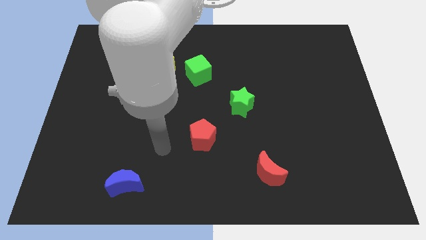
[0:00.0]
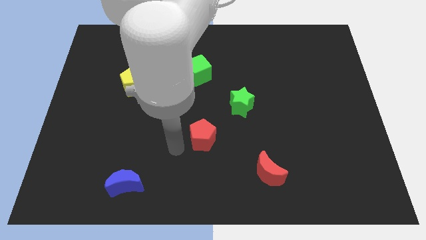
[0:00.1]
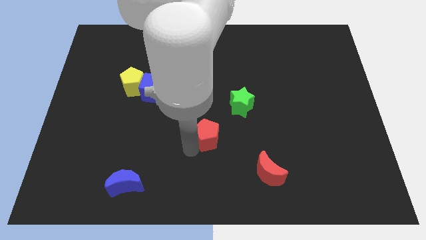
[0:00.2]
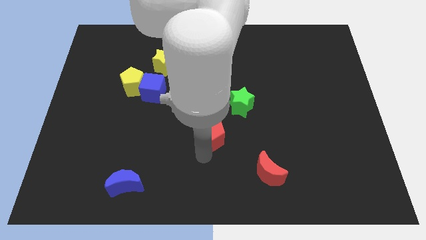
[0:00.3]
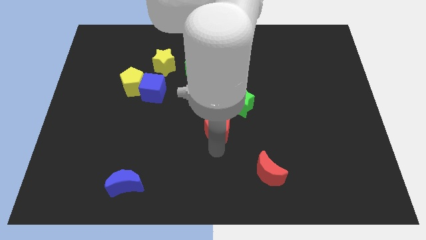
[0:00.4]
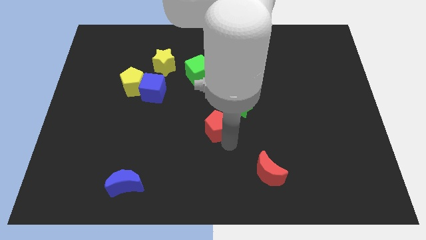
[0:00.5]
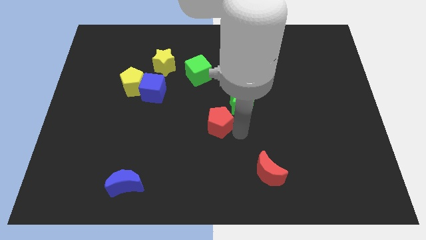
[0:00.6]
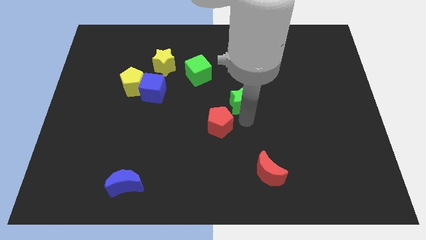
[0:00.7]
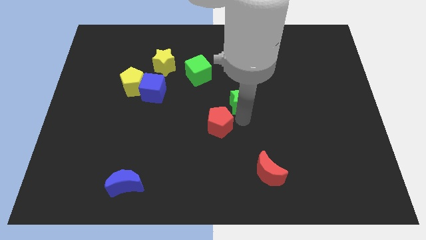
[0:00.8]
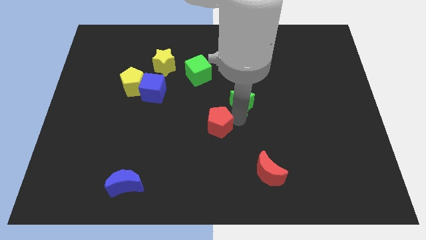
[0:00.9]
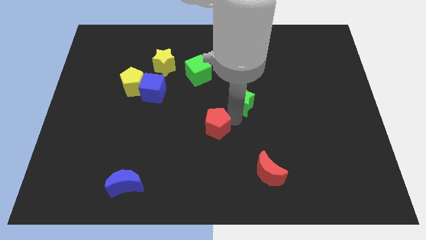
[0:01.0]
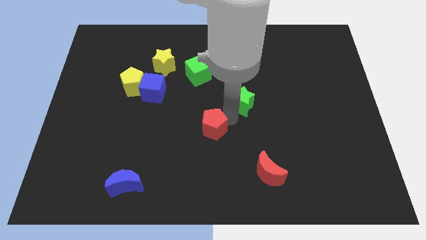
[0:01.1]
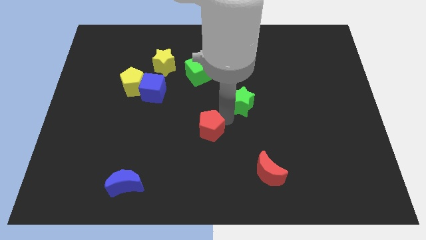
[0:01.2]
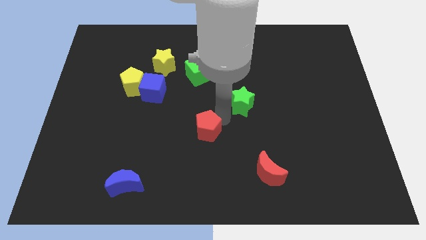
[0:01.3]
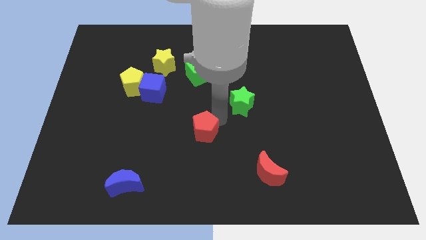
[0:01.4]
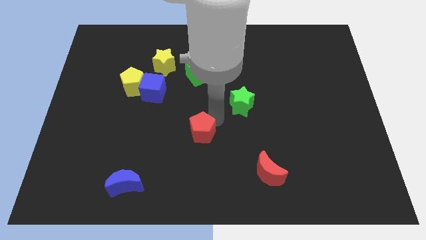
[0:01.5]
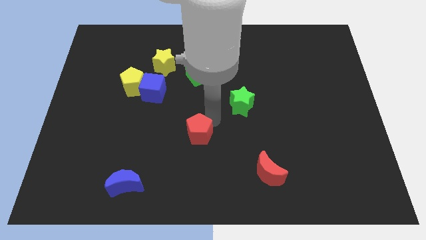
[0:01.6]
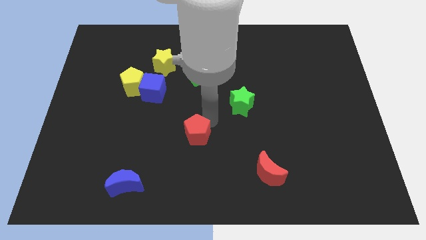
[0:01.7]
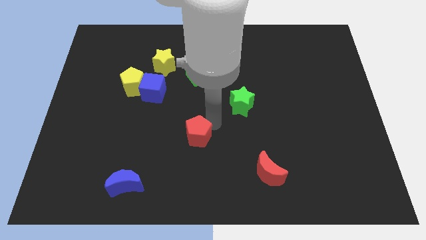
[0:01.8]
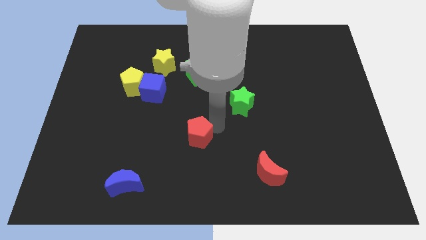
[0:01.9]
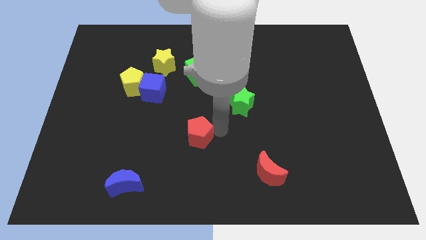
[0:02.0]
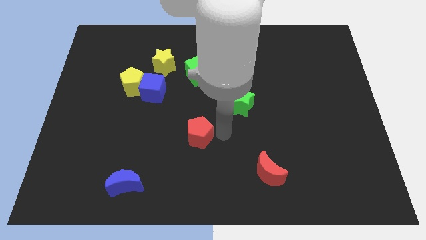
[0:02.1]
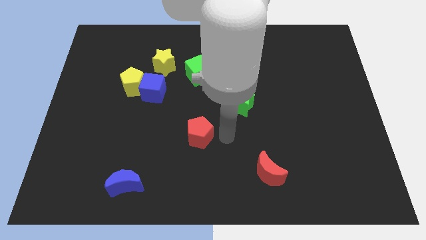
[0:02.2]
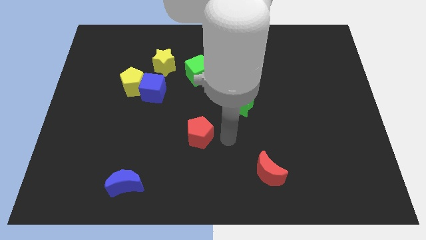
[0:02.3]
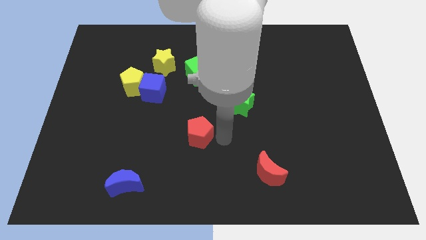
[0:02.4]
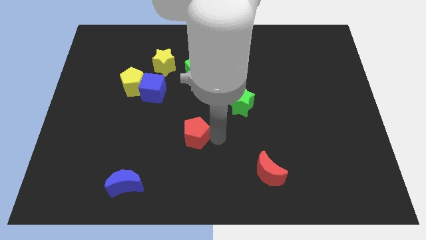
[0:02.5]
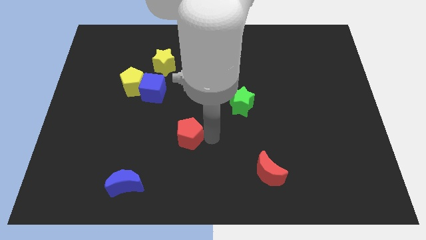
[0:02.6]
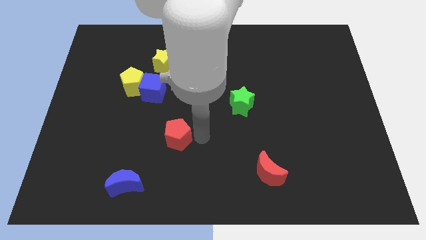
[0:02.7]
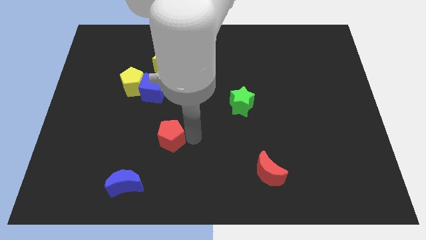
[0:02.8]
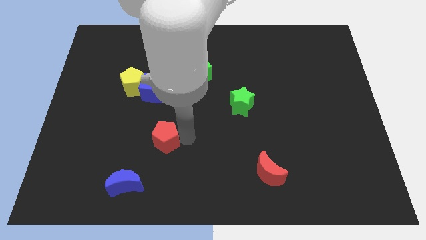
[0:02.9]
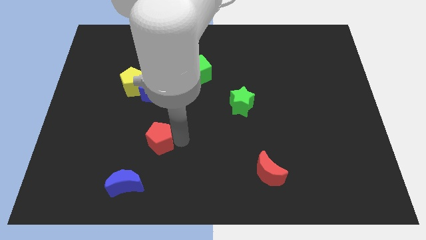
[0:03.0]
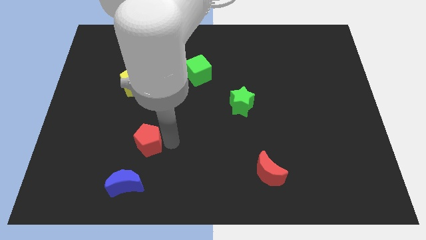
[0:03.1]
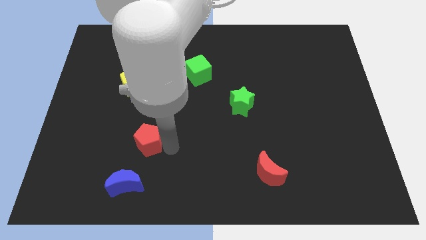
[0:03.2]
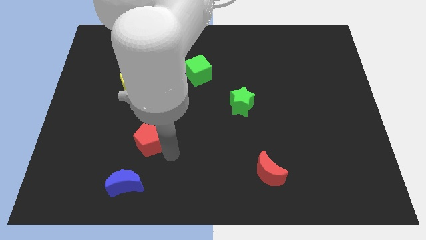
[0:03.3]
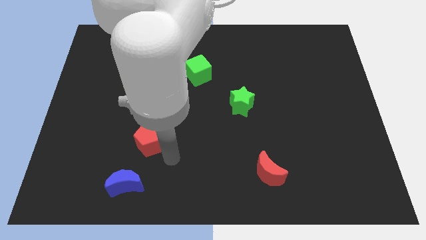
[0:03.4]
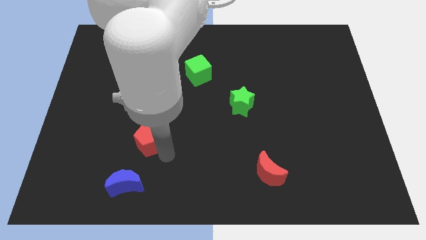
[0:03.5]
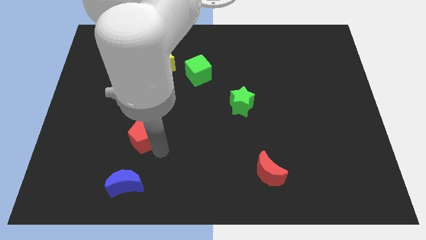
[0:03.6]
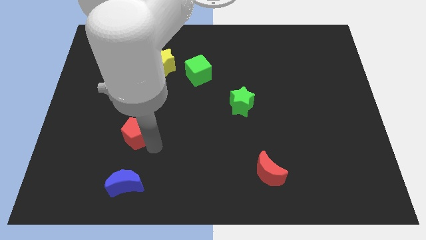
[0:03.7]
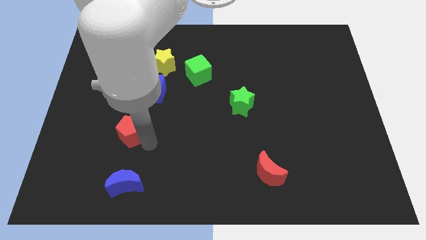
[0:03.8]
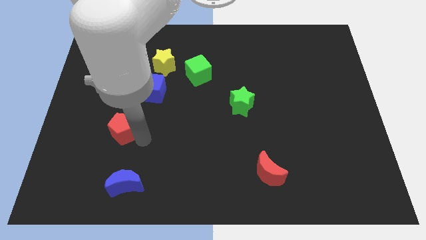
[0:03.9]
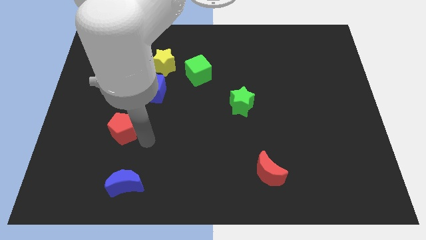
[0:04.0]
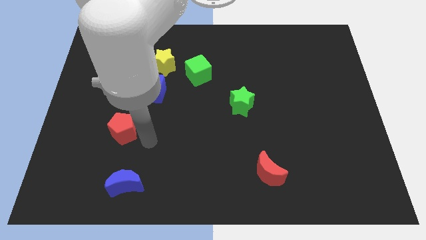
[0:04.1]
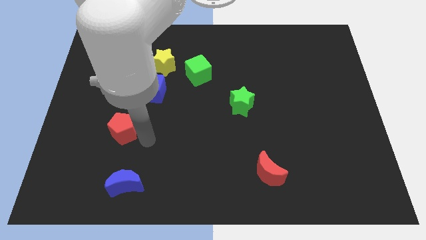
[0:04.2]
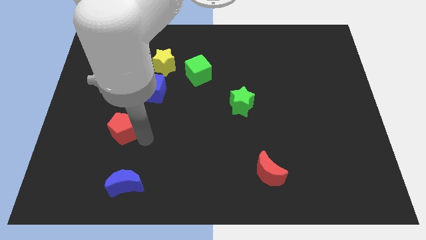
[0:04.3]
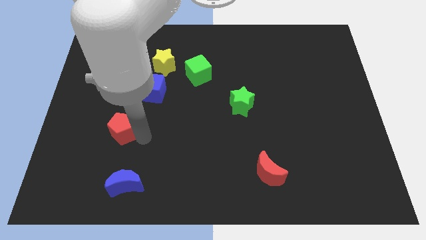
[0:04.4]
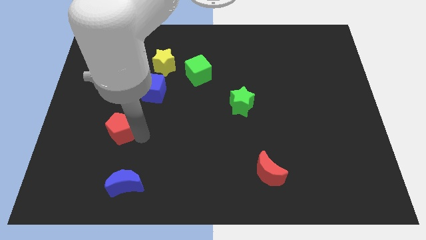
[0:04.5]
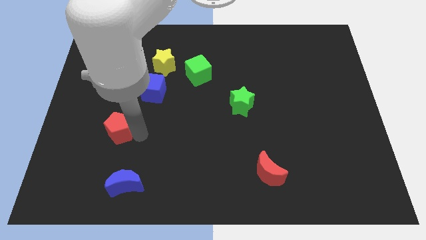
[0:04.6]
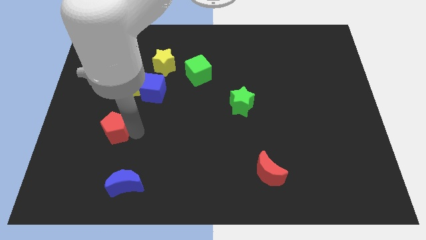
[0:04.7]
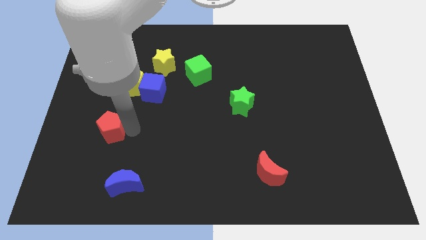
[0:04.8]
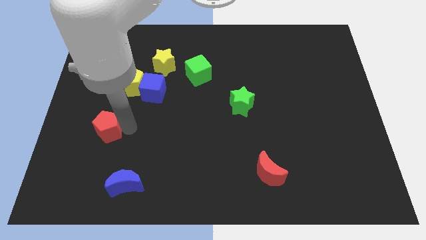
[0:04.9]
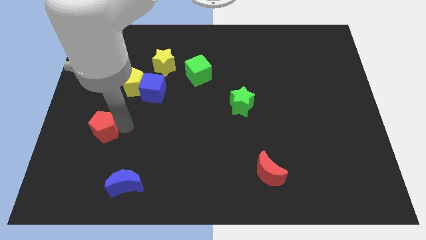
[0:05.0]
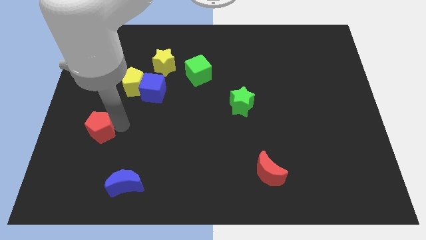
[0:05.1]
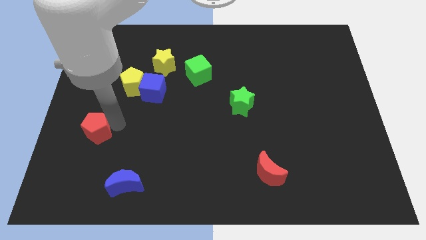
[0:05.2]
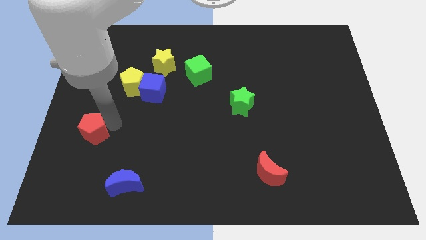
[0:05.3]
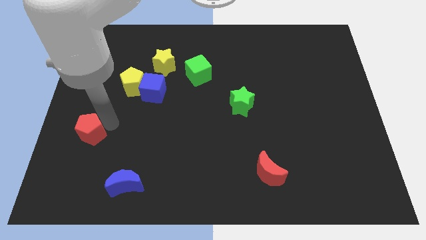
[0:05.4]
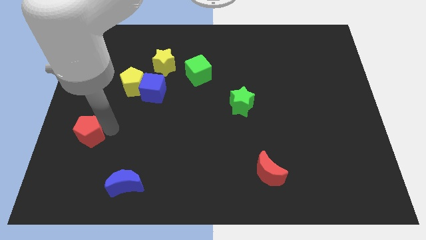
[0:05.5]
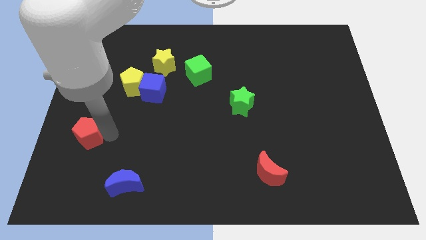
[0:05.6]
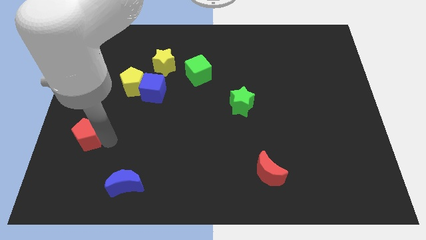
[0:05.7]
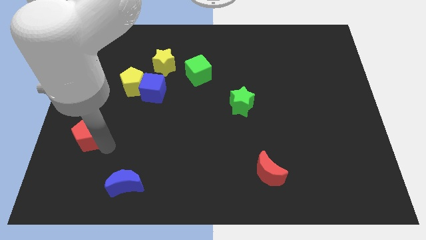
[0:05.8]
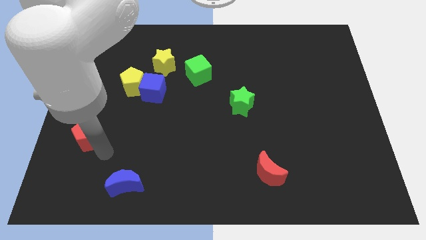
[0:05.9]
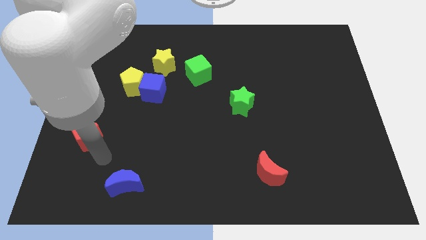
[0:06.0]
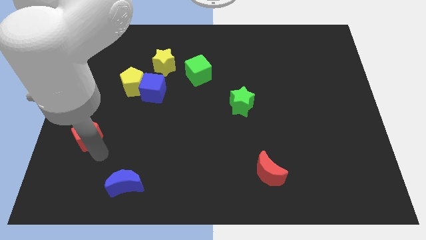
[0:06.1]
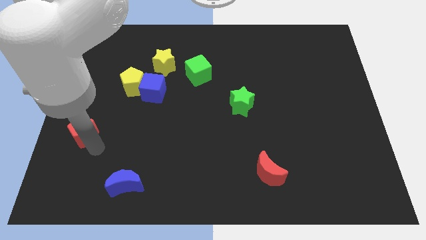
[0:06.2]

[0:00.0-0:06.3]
push the red pentagon to the center left
